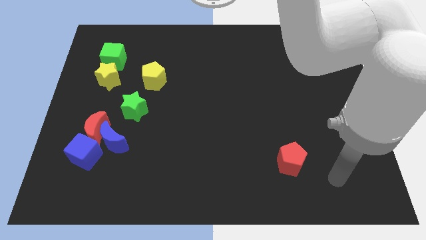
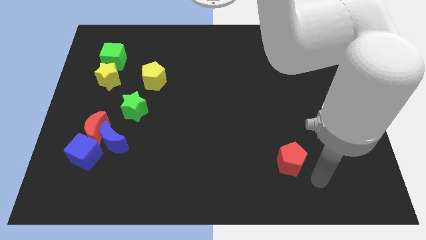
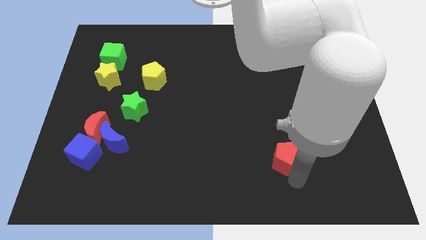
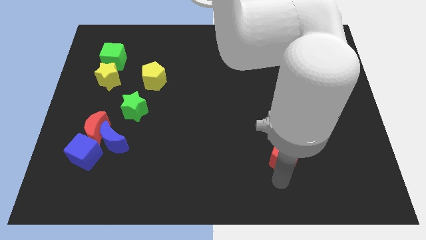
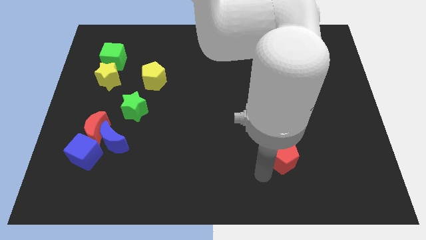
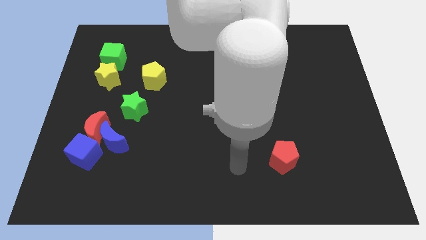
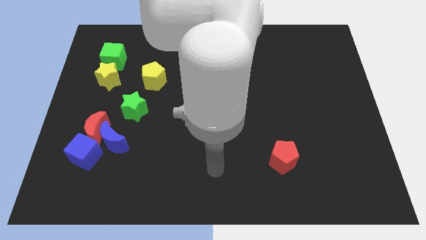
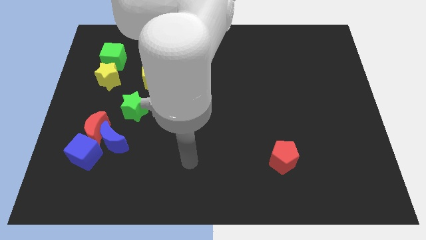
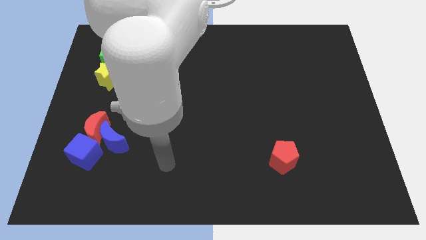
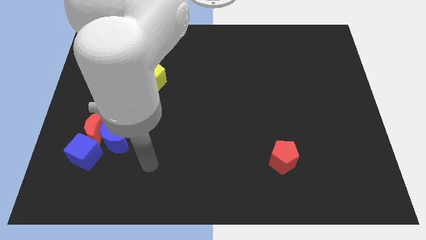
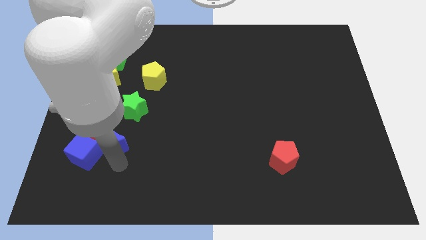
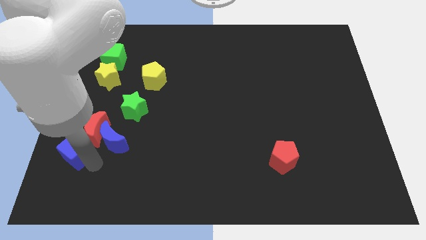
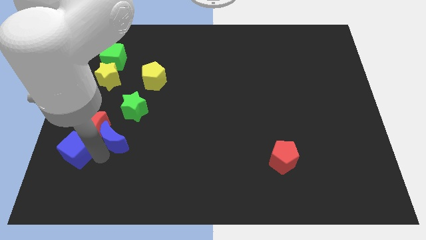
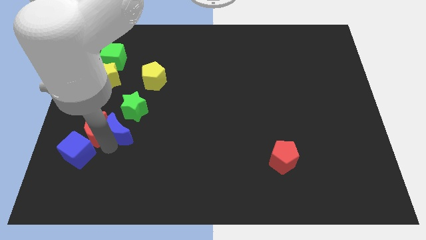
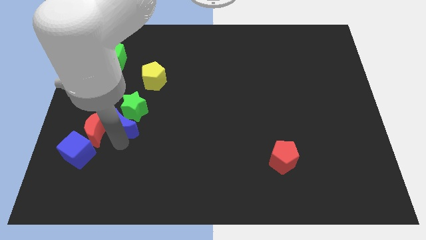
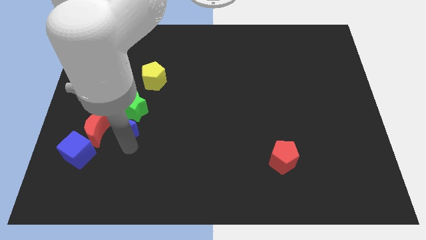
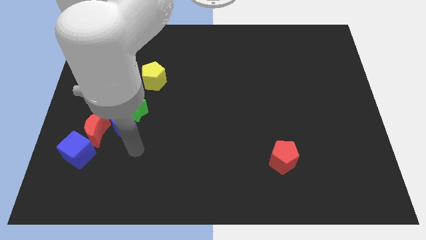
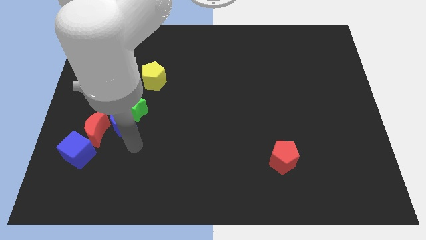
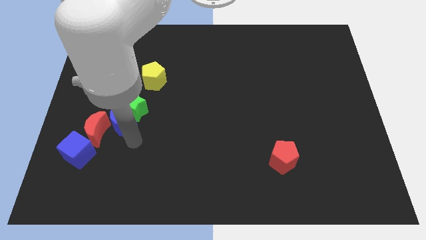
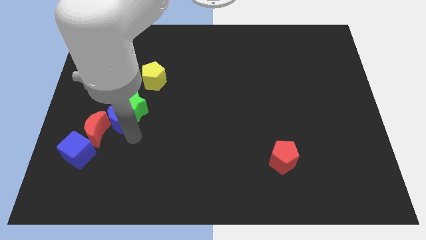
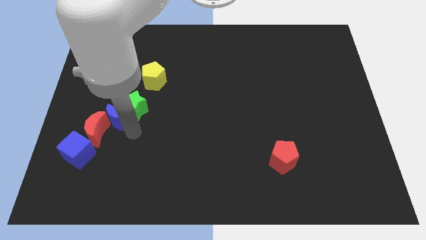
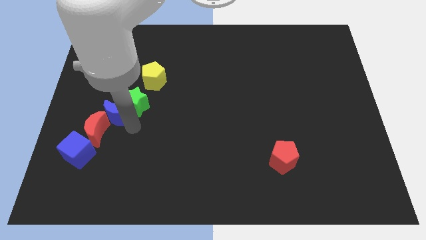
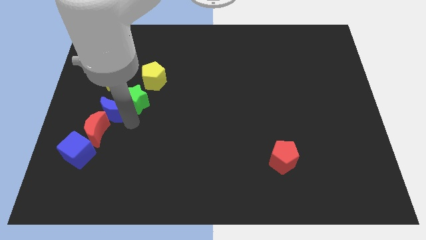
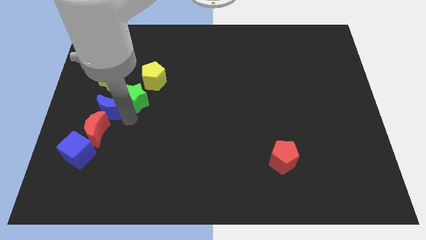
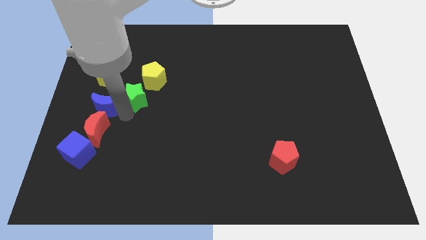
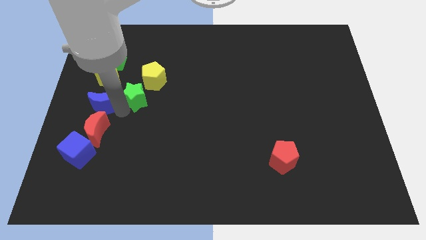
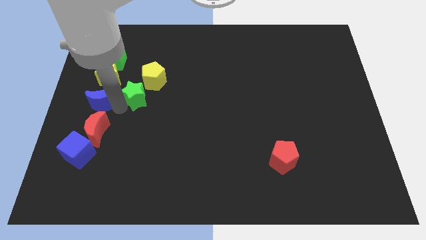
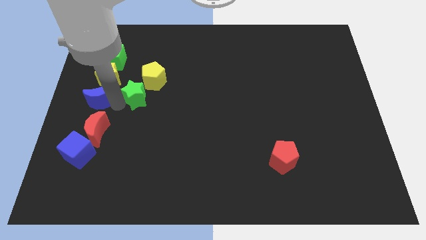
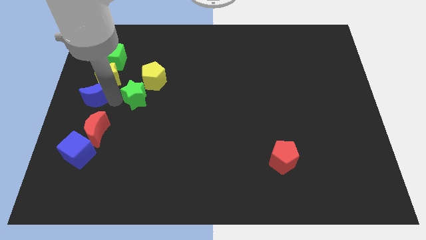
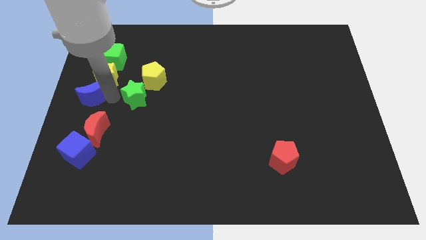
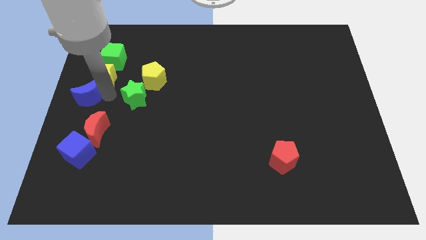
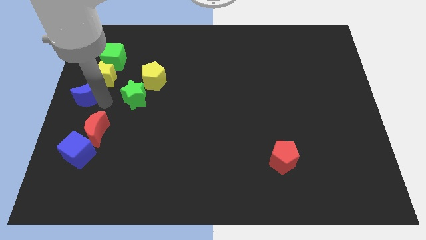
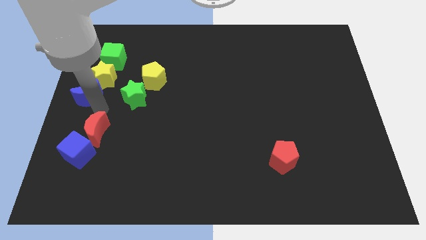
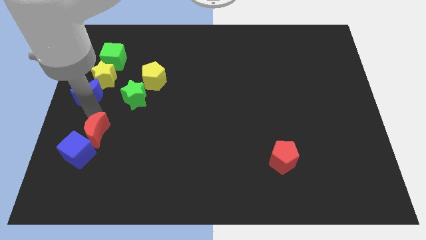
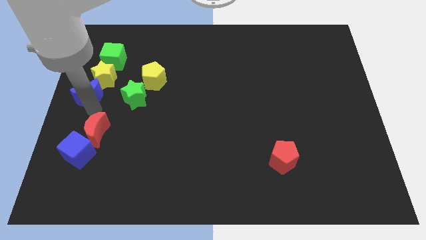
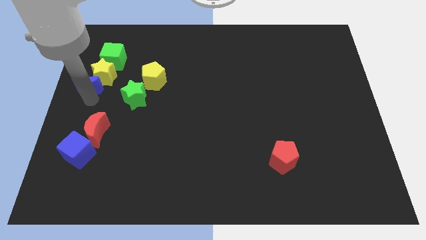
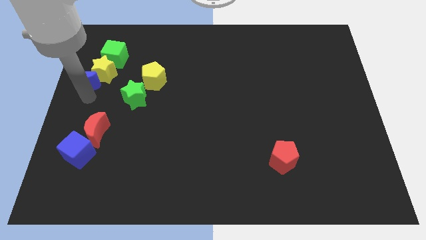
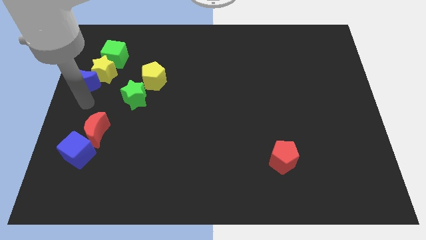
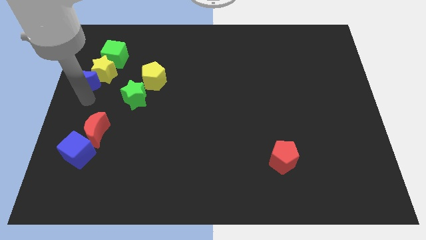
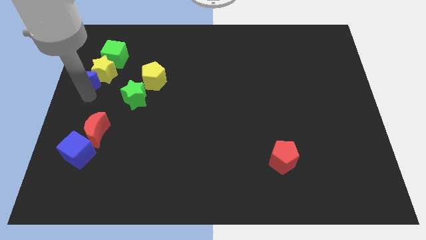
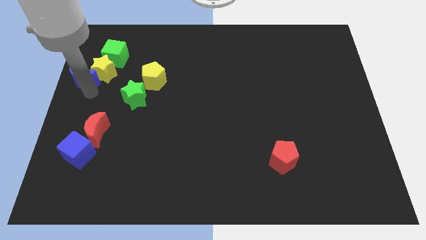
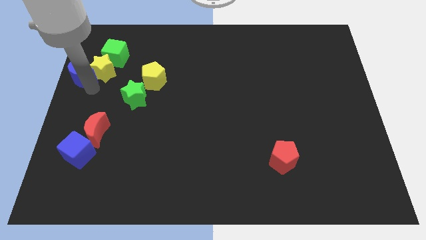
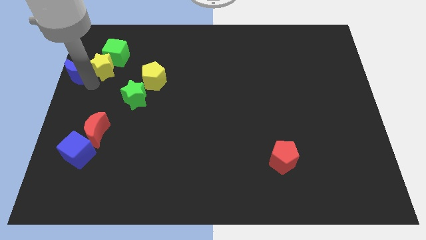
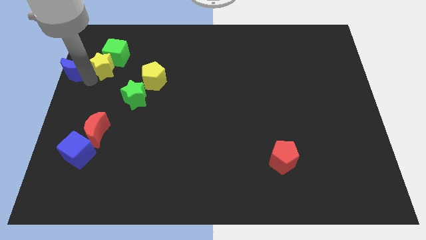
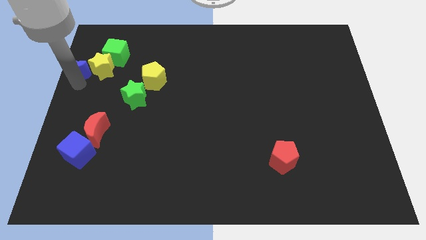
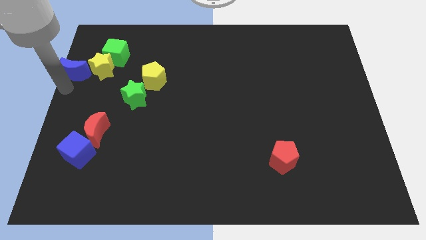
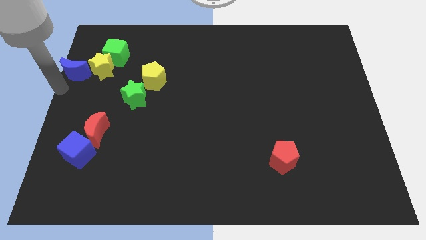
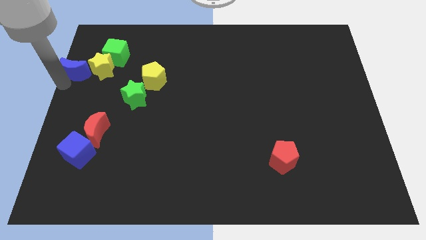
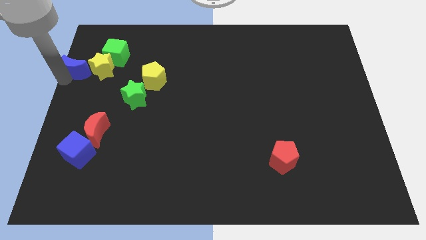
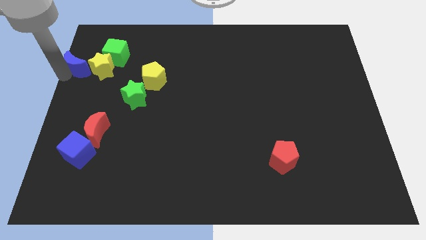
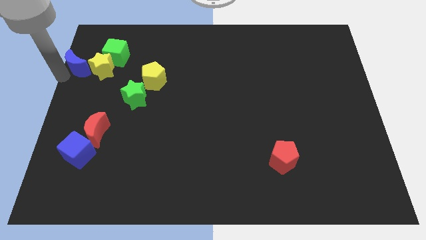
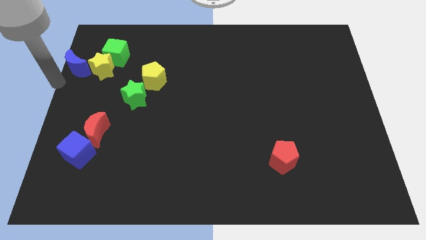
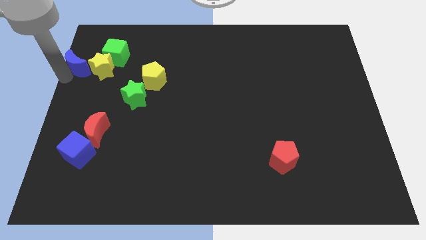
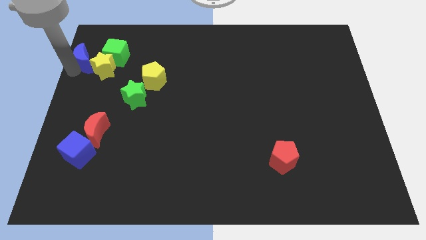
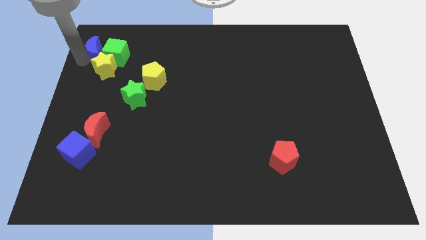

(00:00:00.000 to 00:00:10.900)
slide the blue moon towards the green cube

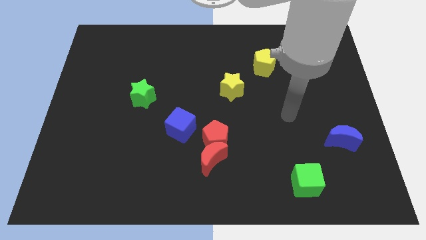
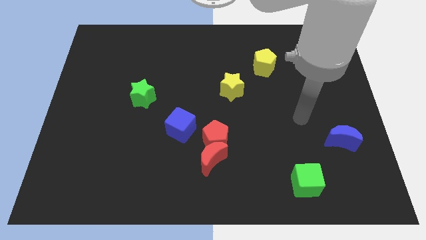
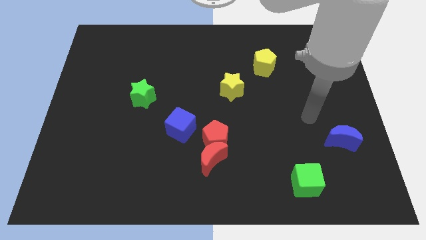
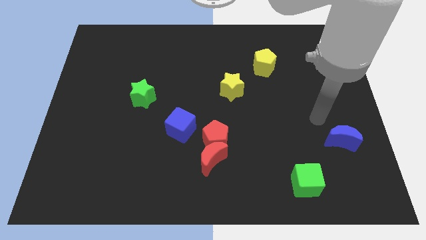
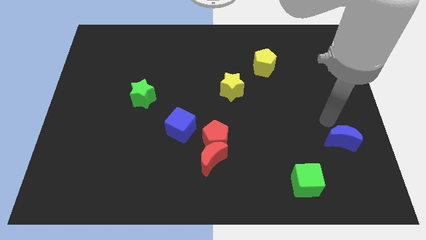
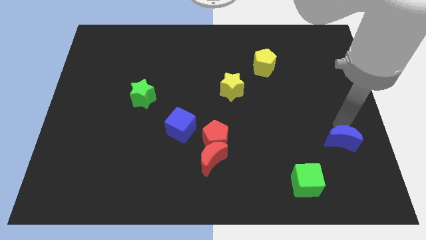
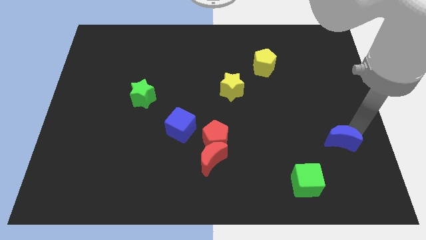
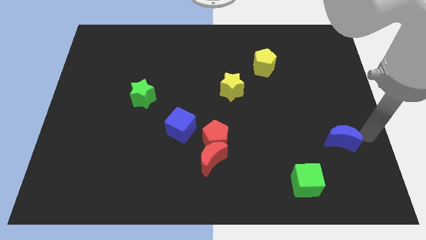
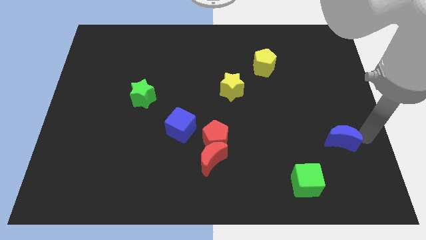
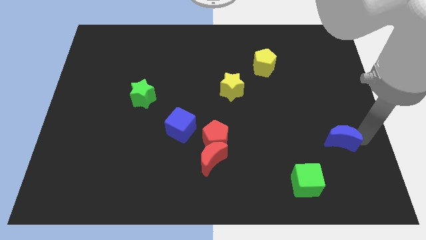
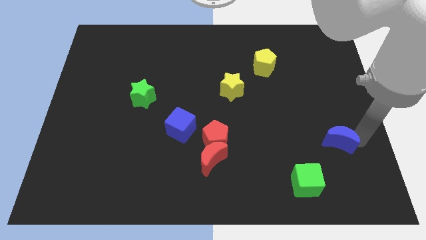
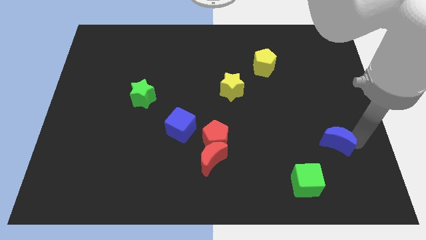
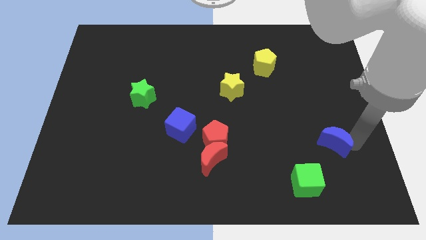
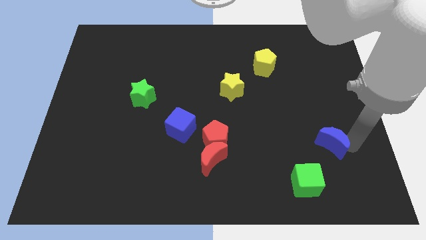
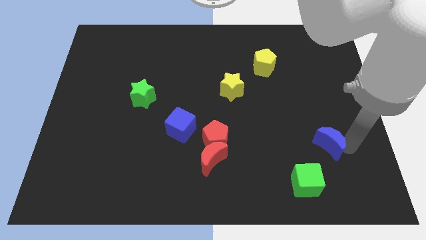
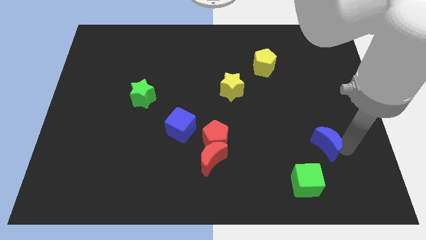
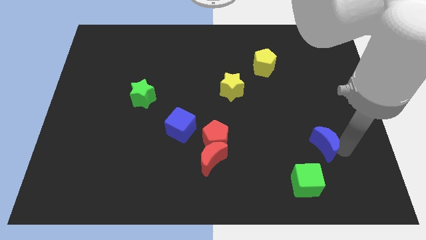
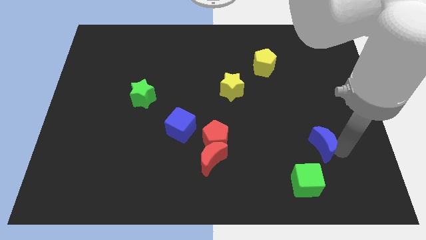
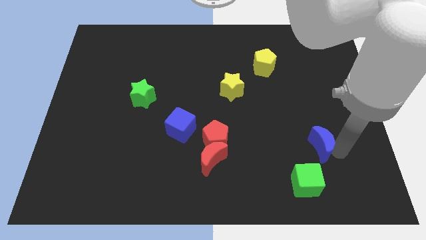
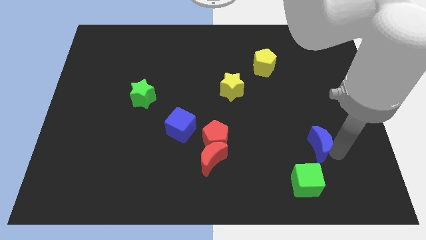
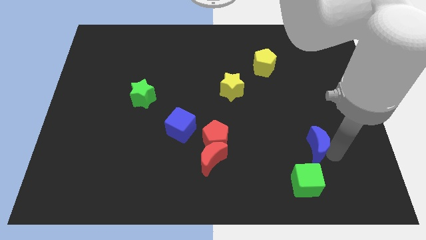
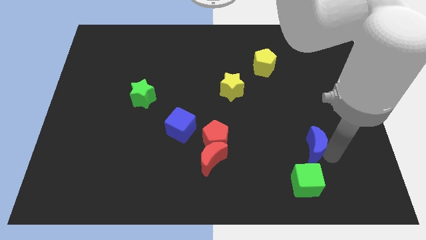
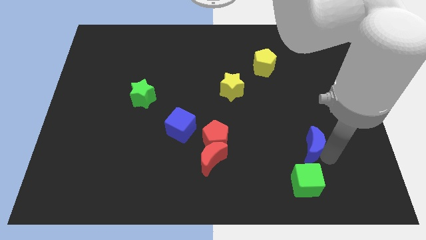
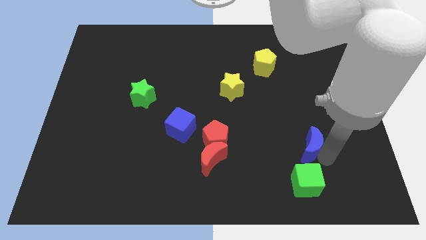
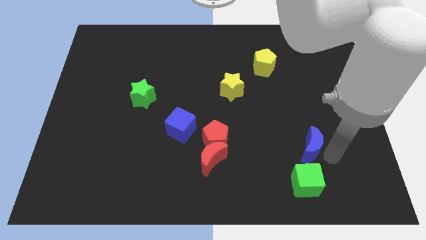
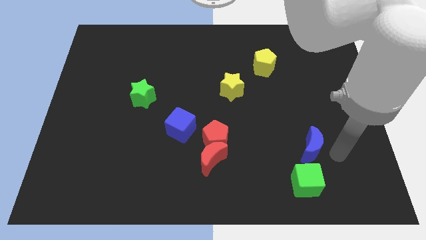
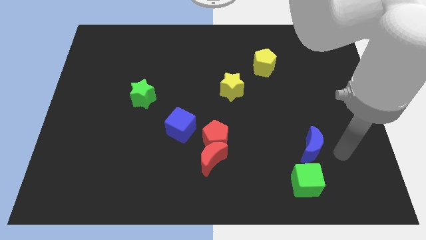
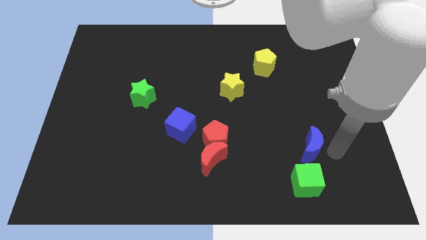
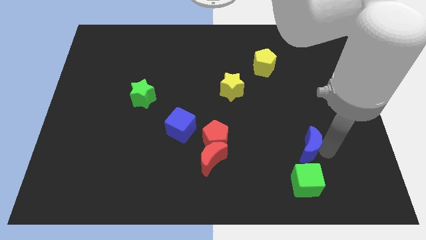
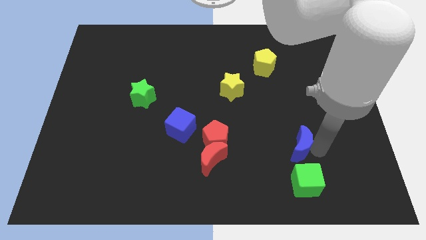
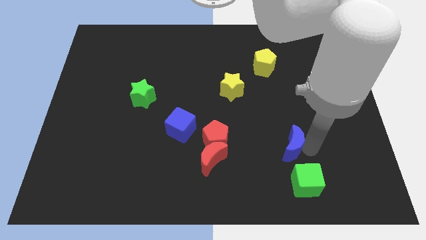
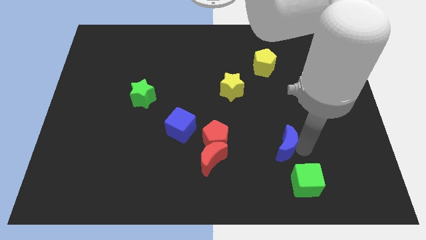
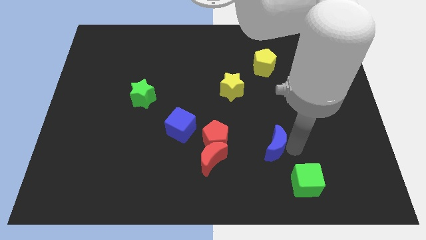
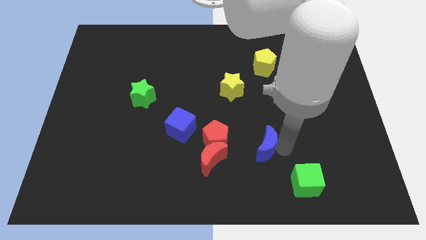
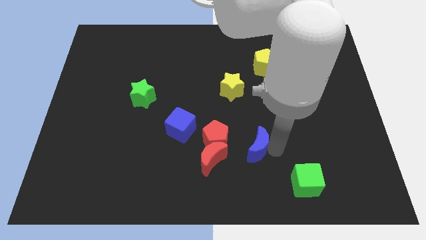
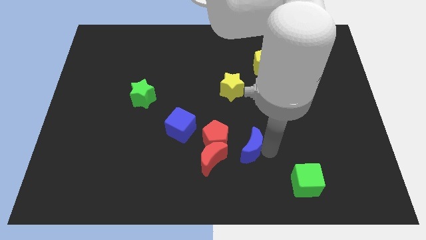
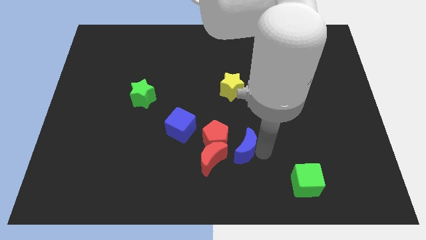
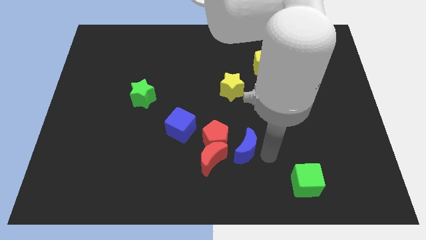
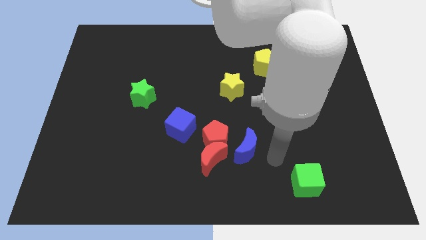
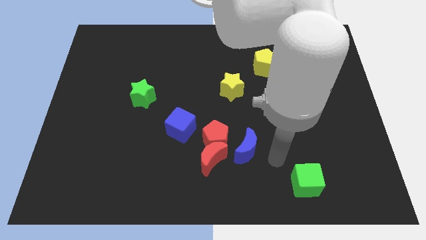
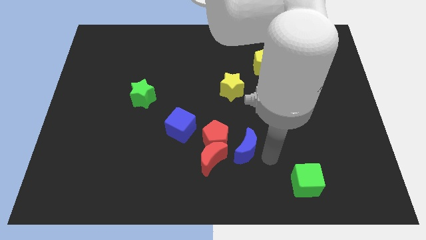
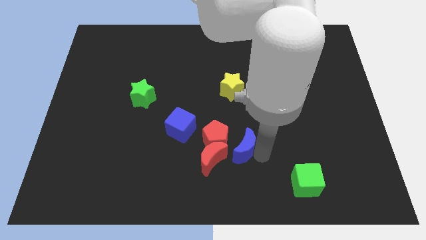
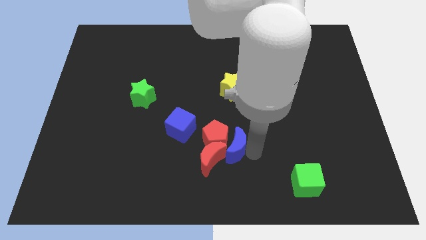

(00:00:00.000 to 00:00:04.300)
put the blue moon close to the red pentagon
